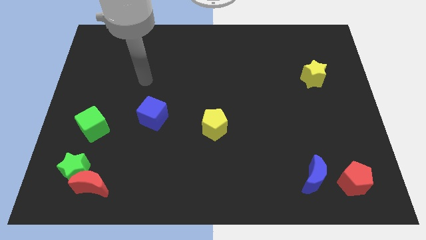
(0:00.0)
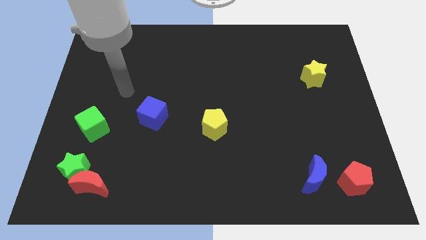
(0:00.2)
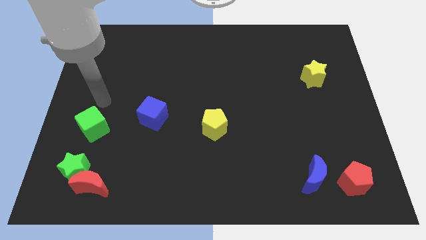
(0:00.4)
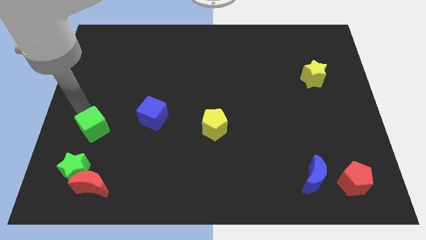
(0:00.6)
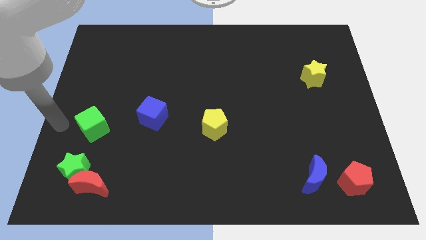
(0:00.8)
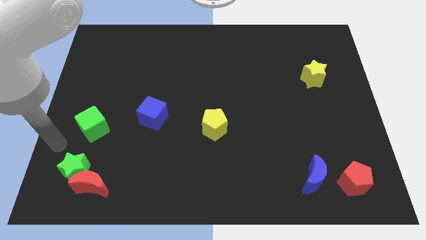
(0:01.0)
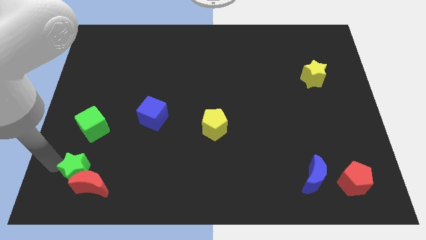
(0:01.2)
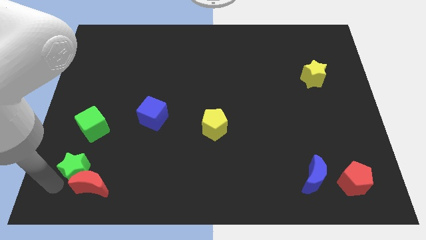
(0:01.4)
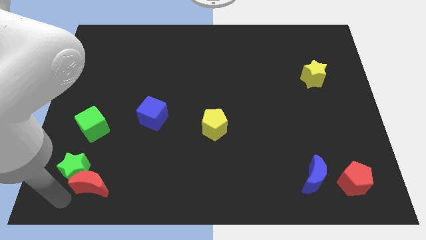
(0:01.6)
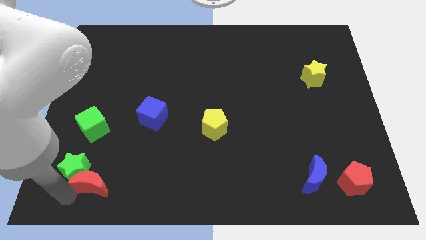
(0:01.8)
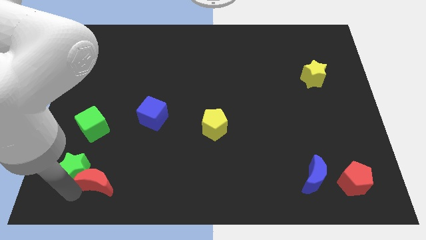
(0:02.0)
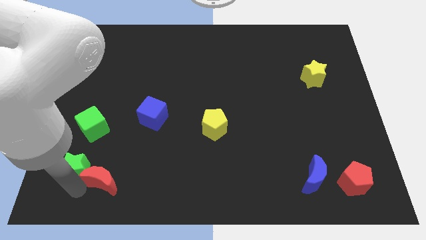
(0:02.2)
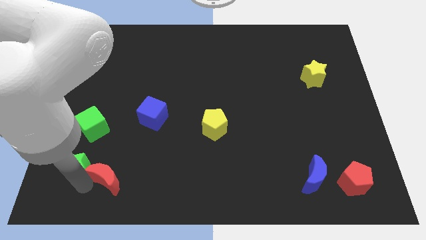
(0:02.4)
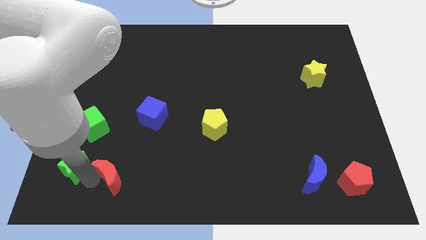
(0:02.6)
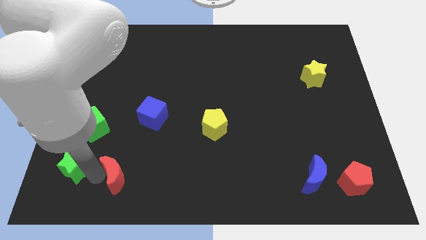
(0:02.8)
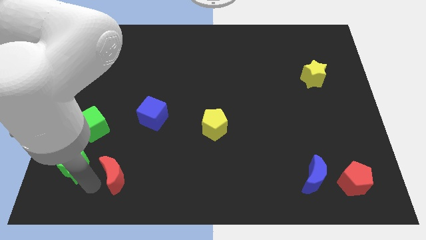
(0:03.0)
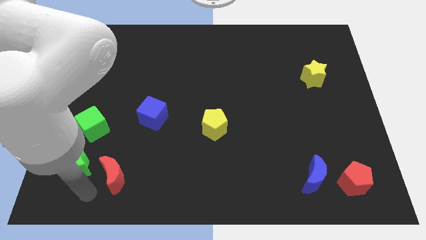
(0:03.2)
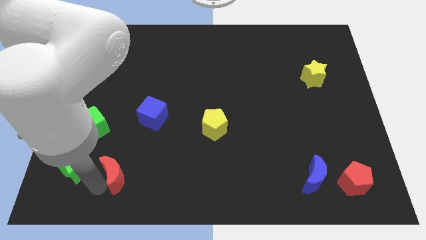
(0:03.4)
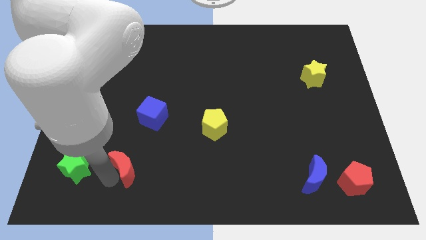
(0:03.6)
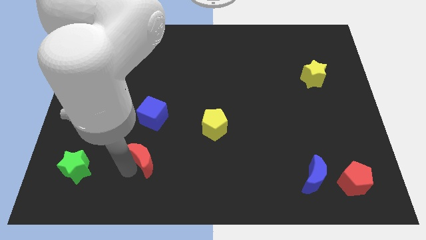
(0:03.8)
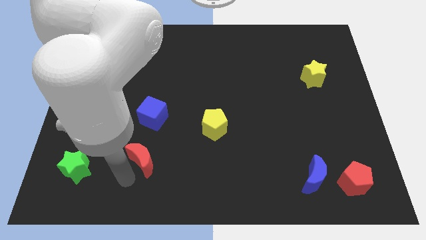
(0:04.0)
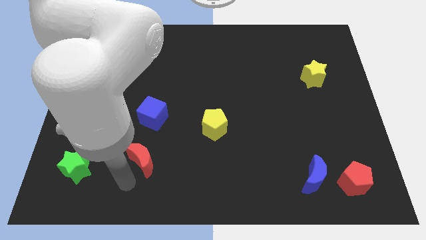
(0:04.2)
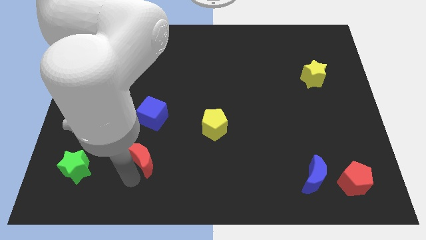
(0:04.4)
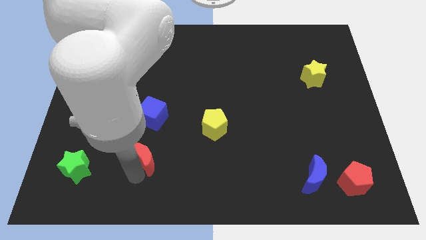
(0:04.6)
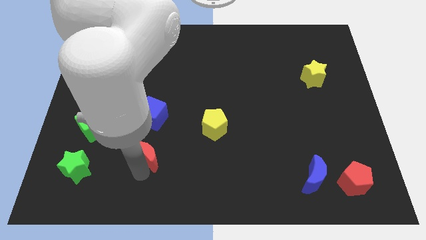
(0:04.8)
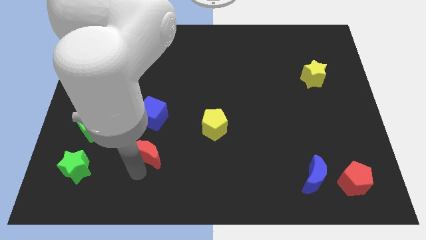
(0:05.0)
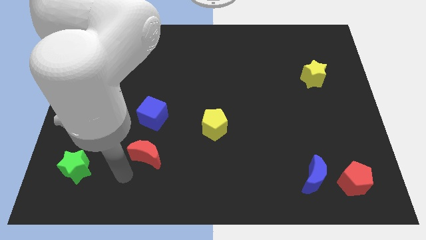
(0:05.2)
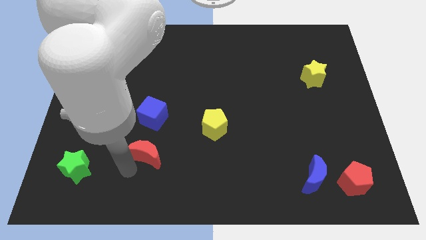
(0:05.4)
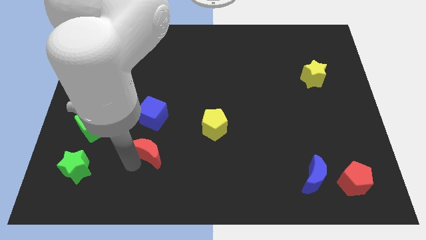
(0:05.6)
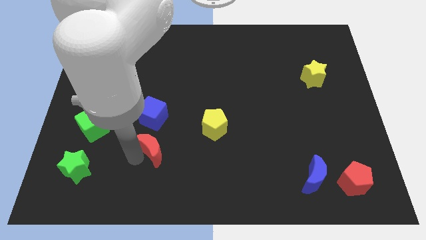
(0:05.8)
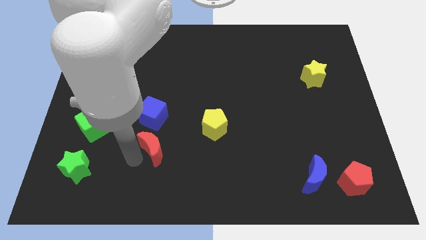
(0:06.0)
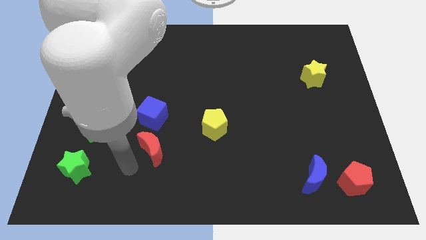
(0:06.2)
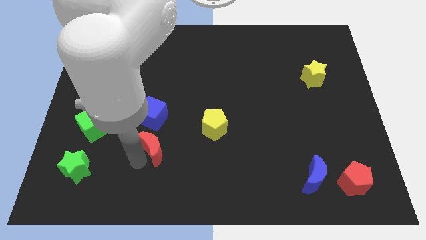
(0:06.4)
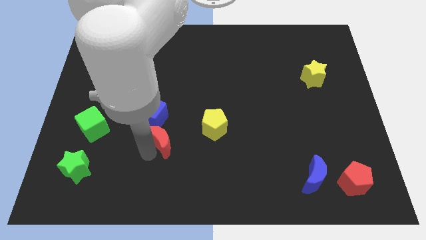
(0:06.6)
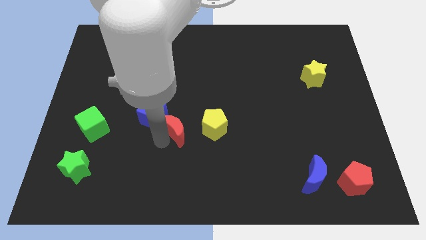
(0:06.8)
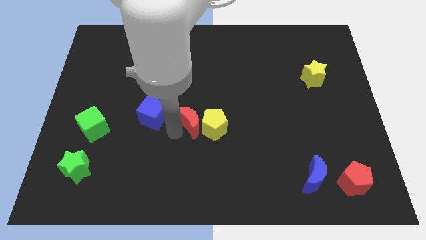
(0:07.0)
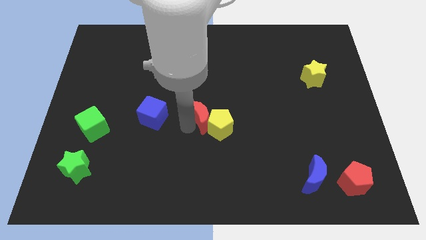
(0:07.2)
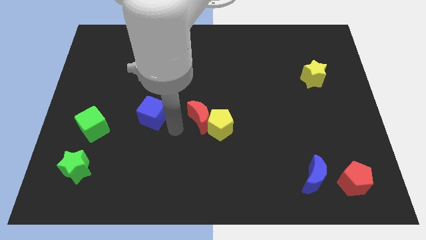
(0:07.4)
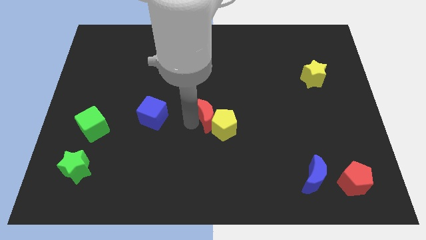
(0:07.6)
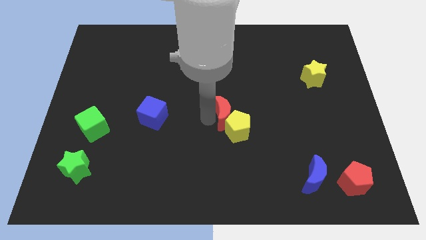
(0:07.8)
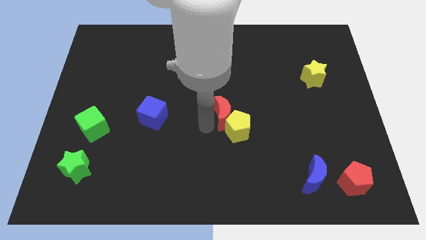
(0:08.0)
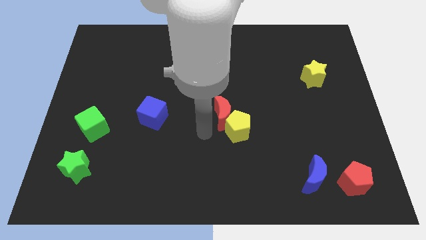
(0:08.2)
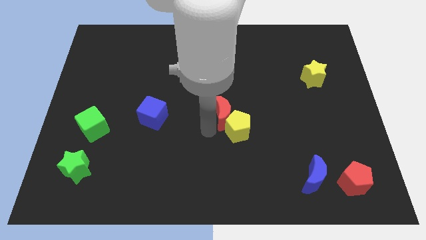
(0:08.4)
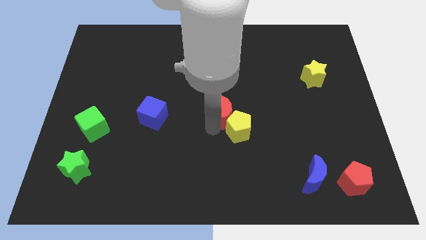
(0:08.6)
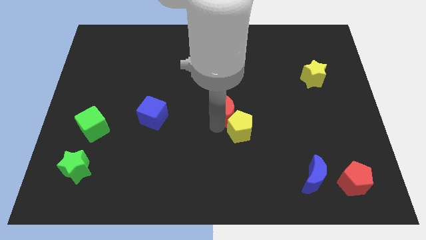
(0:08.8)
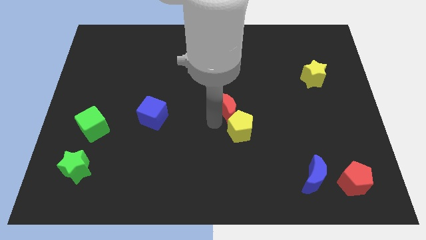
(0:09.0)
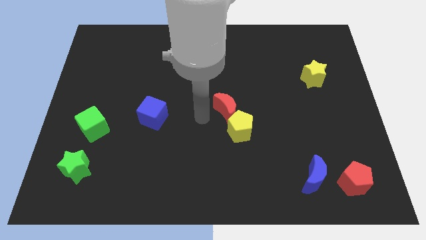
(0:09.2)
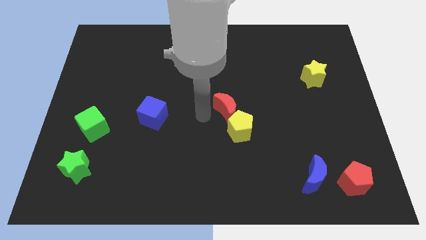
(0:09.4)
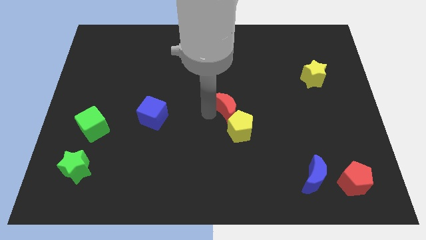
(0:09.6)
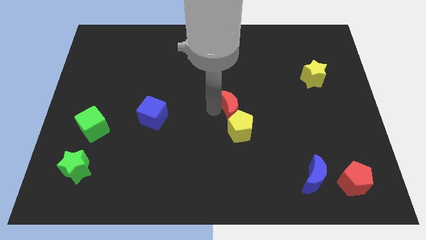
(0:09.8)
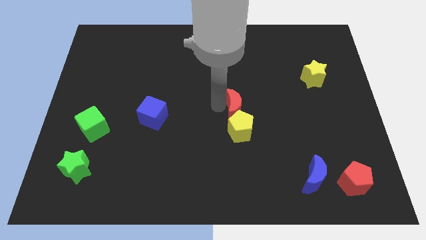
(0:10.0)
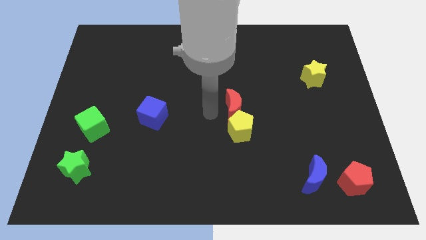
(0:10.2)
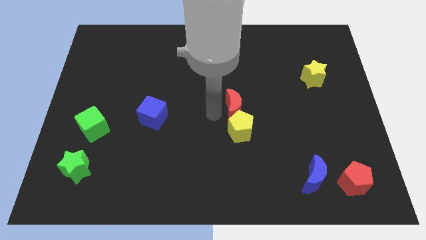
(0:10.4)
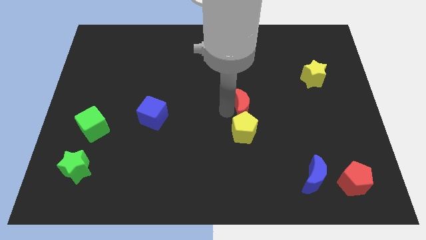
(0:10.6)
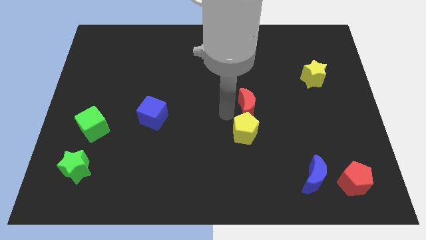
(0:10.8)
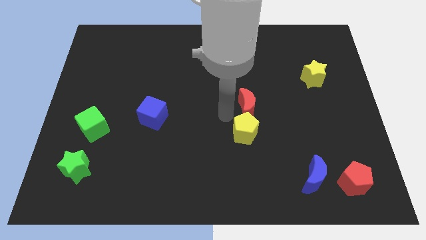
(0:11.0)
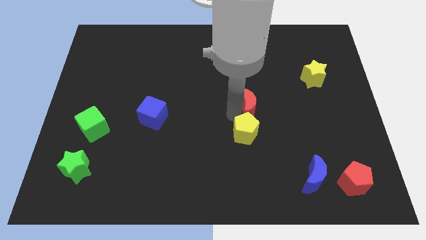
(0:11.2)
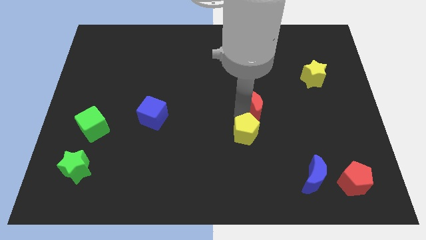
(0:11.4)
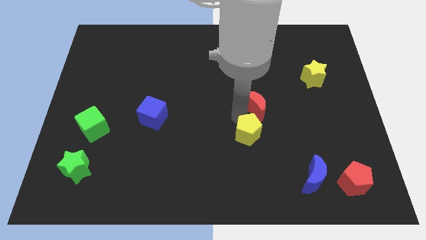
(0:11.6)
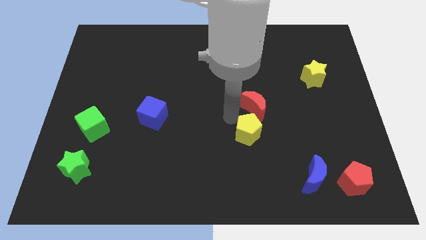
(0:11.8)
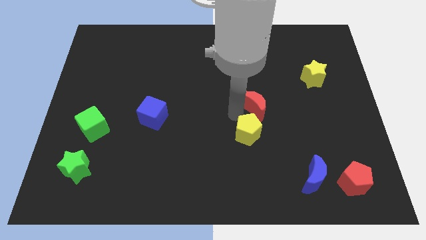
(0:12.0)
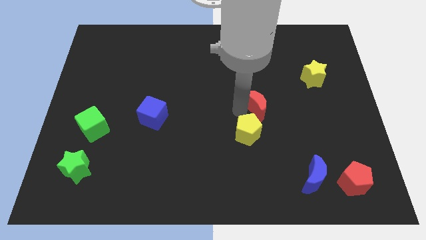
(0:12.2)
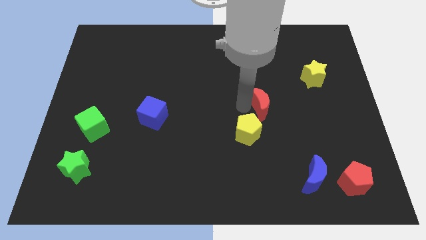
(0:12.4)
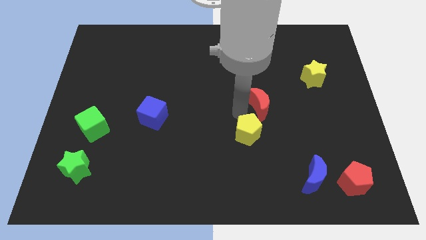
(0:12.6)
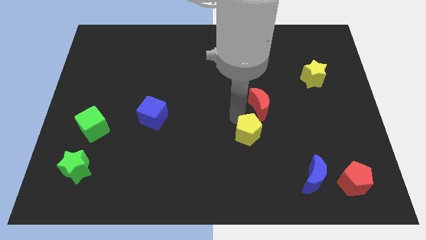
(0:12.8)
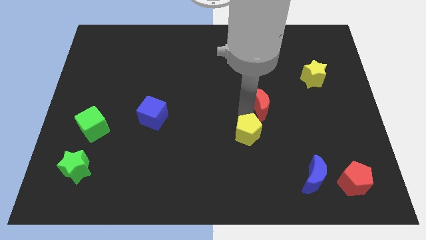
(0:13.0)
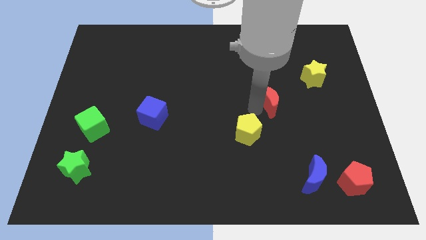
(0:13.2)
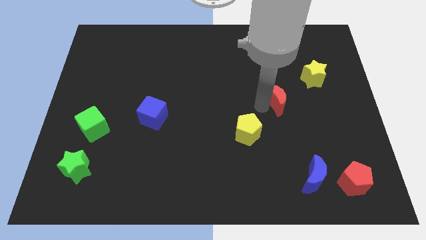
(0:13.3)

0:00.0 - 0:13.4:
push the red moon to the bottom left of the yellow star

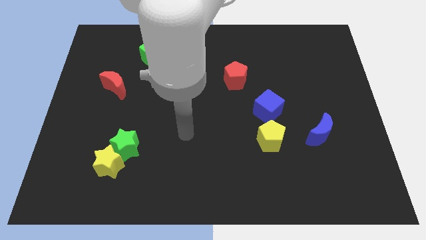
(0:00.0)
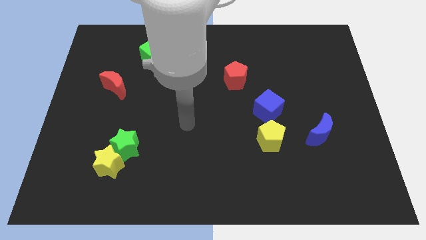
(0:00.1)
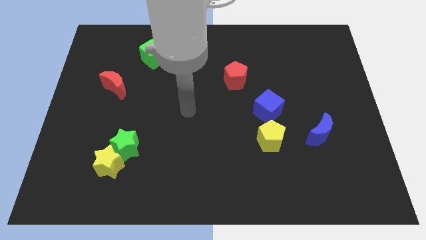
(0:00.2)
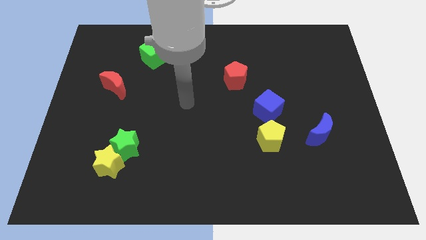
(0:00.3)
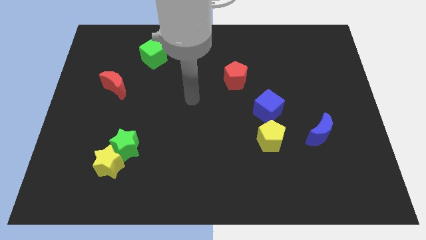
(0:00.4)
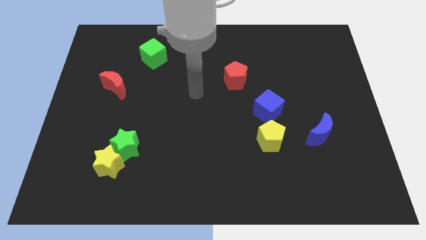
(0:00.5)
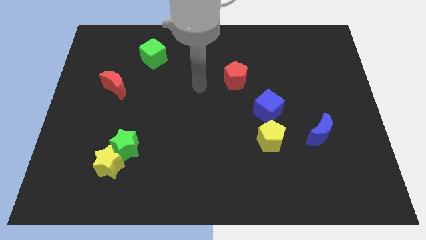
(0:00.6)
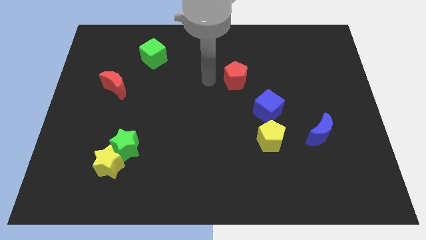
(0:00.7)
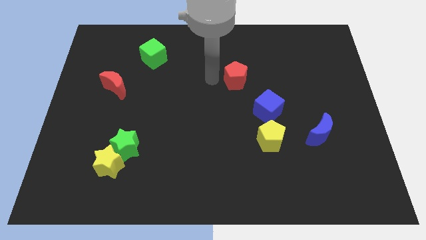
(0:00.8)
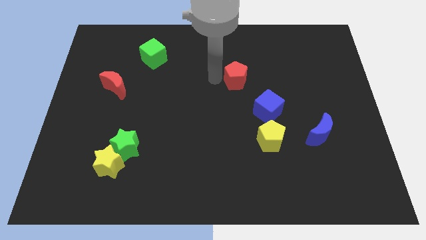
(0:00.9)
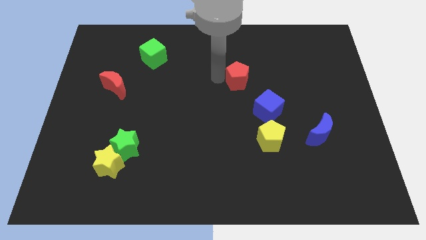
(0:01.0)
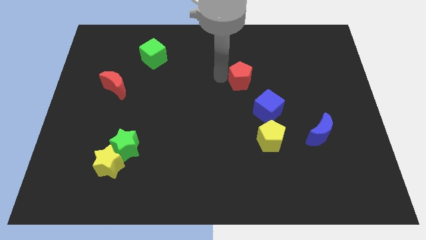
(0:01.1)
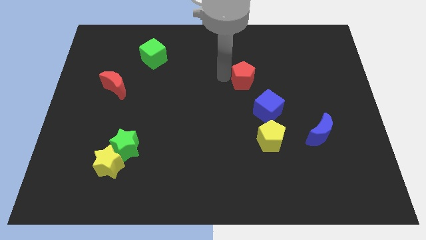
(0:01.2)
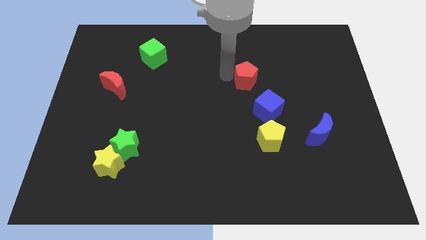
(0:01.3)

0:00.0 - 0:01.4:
move the red pentagon to the top side of the blue cube
